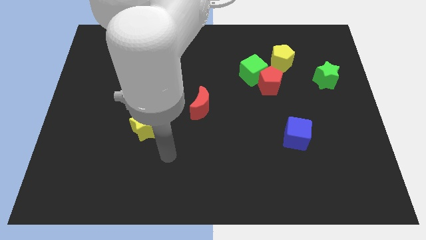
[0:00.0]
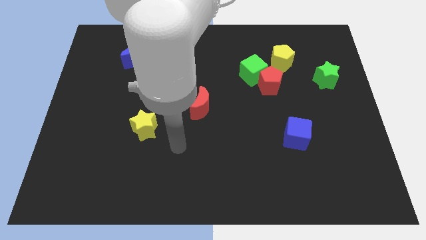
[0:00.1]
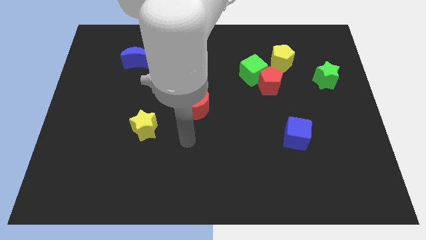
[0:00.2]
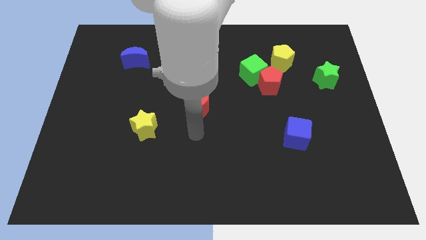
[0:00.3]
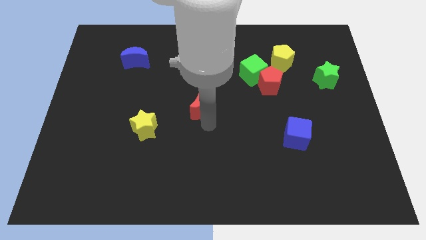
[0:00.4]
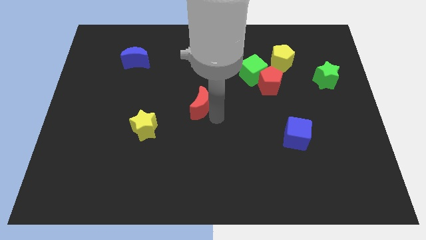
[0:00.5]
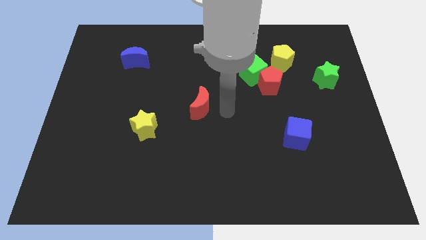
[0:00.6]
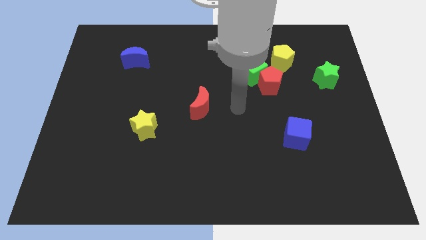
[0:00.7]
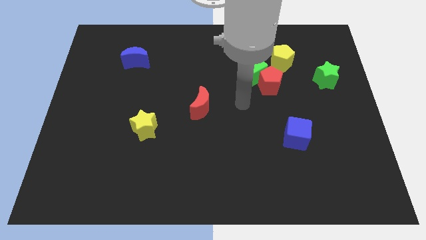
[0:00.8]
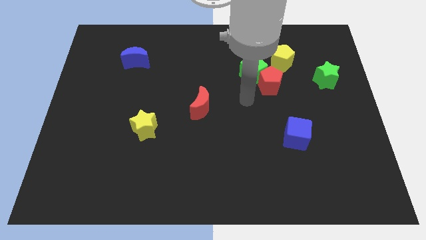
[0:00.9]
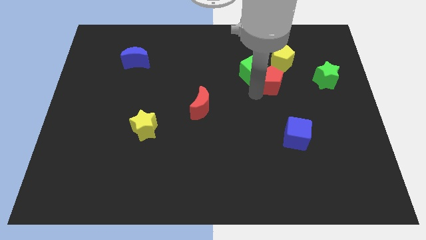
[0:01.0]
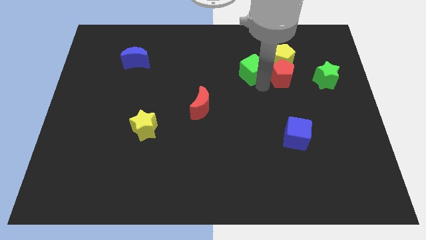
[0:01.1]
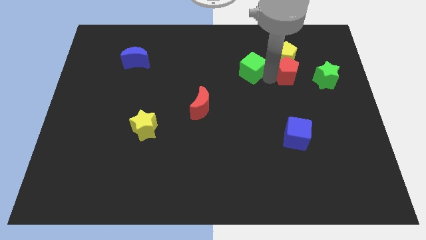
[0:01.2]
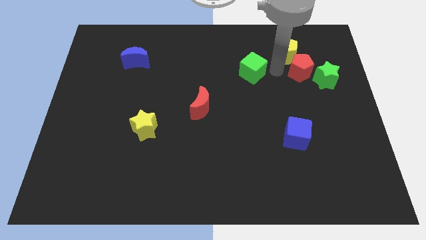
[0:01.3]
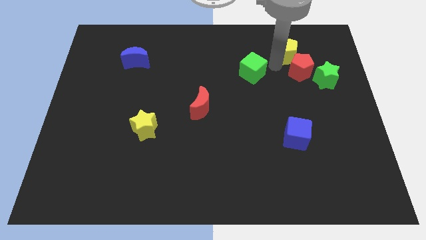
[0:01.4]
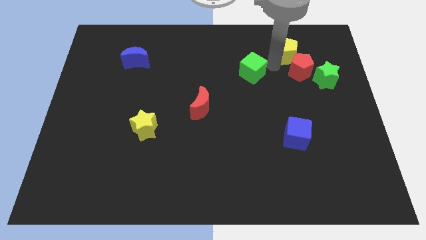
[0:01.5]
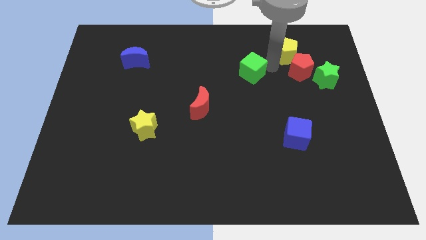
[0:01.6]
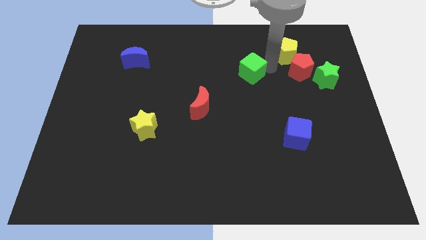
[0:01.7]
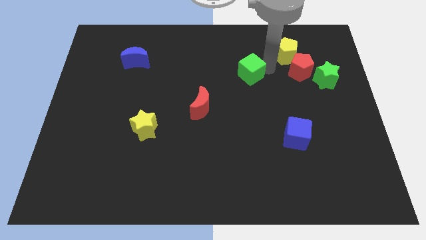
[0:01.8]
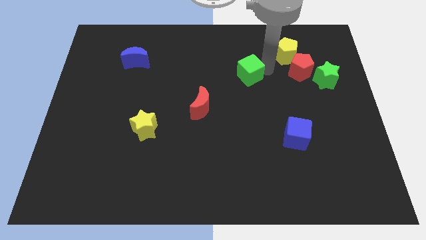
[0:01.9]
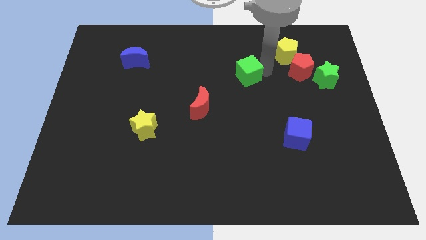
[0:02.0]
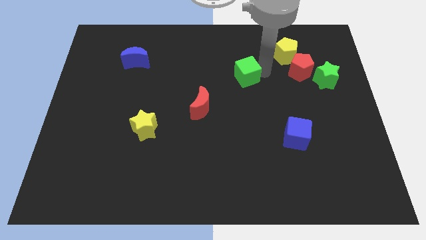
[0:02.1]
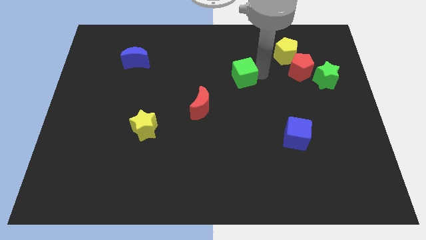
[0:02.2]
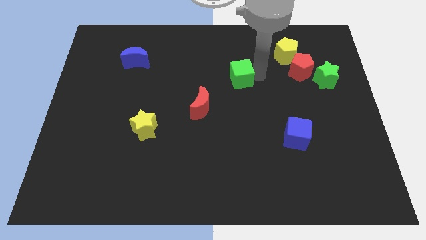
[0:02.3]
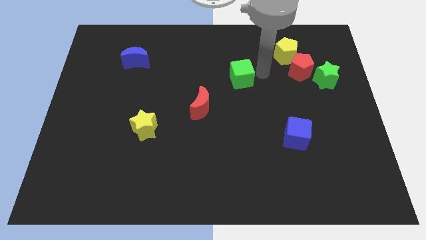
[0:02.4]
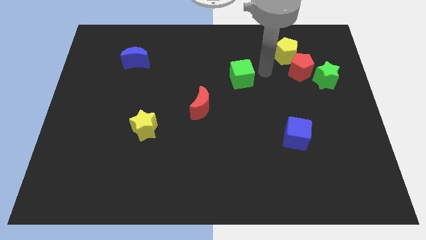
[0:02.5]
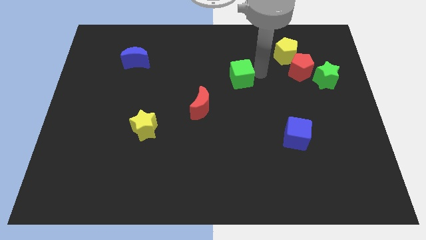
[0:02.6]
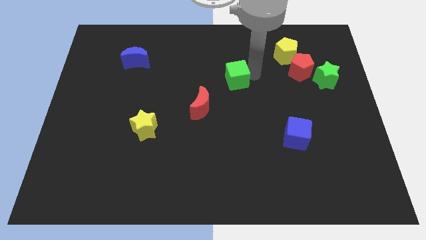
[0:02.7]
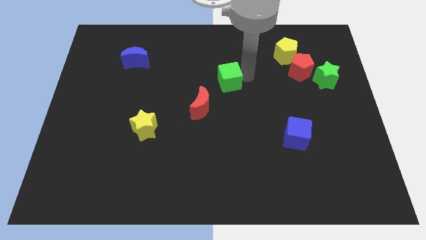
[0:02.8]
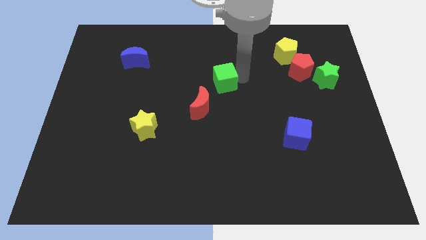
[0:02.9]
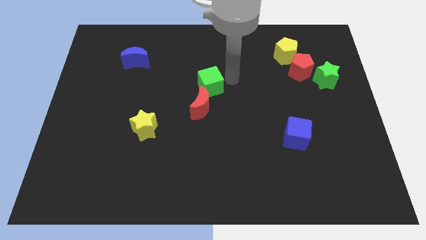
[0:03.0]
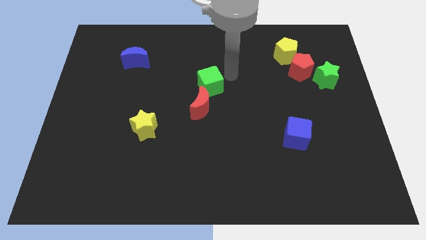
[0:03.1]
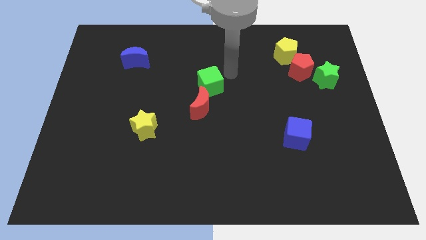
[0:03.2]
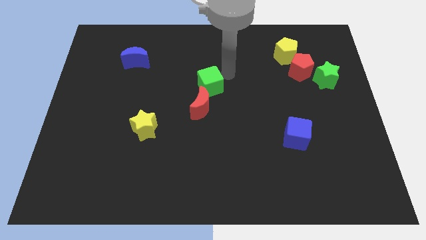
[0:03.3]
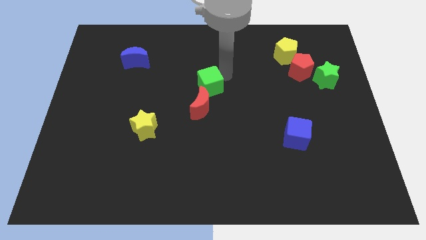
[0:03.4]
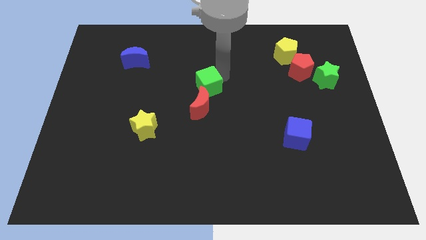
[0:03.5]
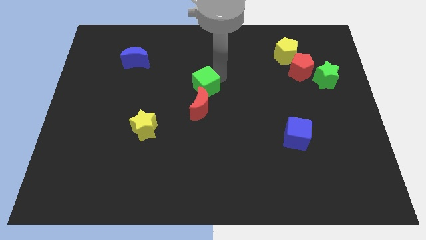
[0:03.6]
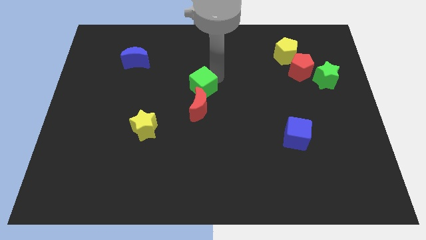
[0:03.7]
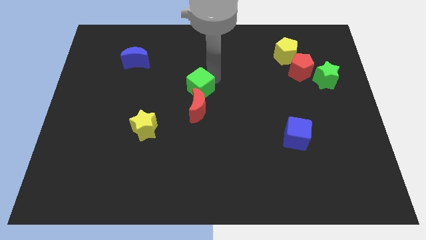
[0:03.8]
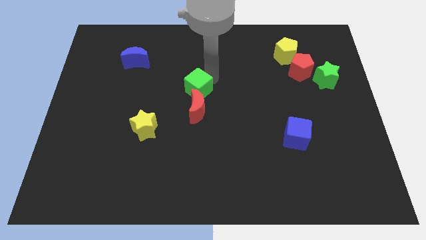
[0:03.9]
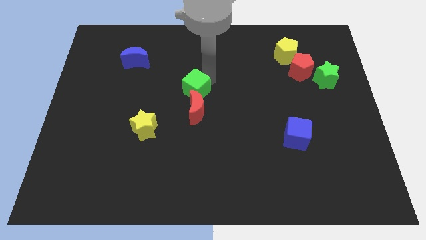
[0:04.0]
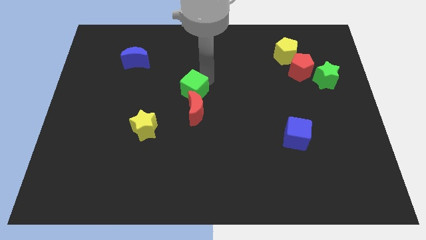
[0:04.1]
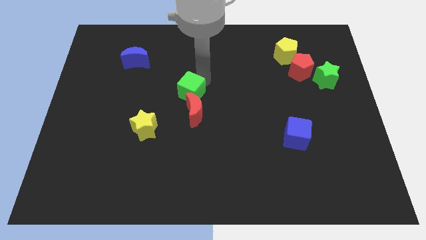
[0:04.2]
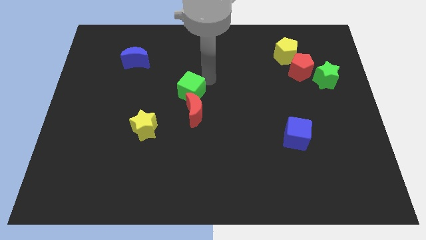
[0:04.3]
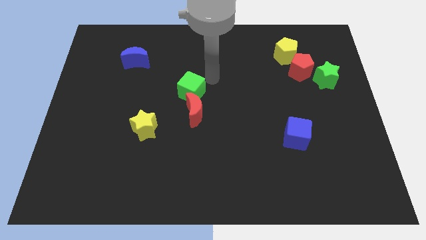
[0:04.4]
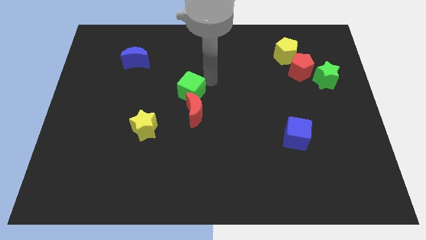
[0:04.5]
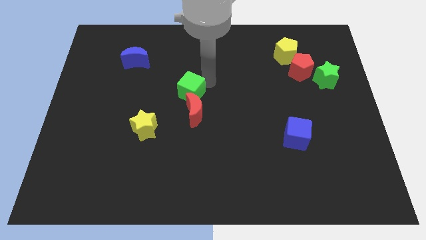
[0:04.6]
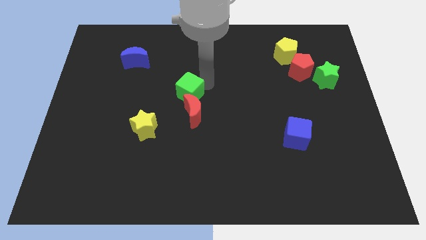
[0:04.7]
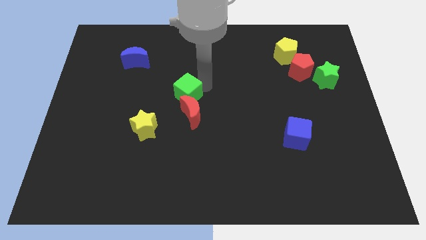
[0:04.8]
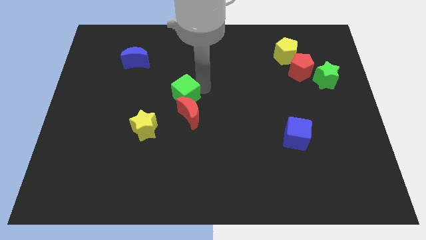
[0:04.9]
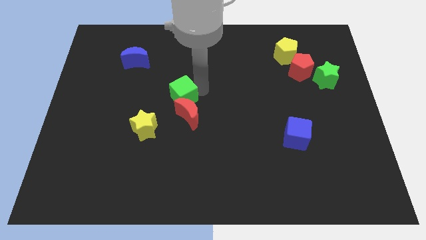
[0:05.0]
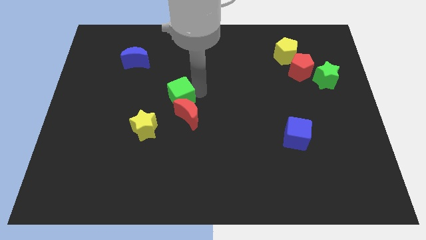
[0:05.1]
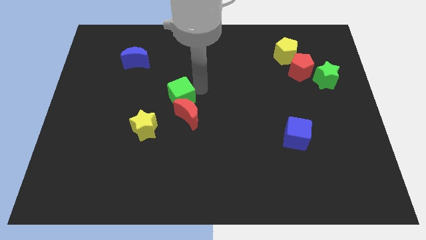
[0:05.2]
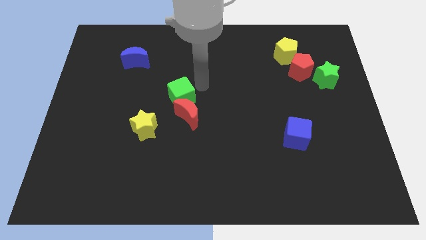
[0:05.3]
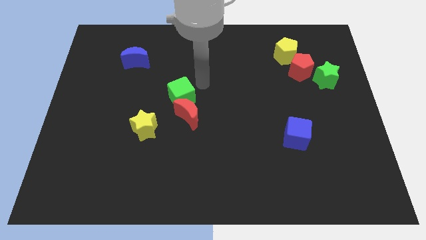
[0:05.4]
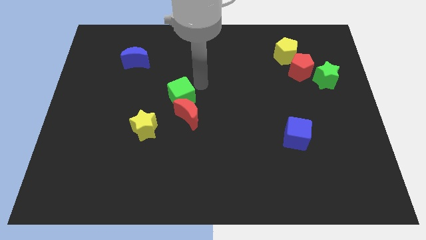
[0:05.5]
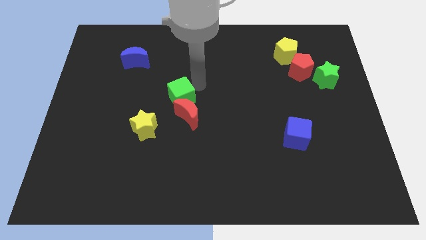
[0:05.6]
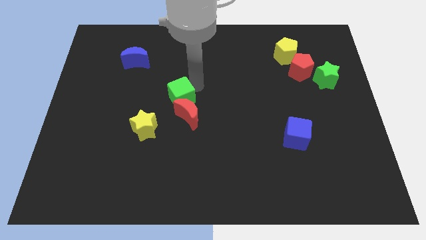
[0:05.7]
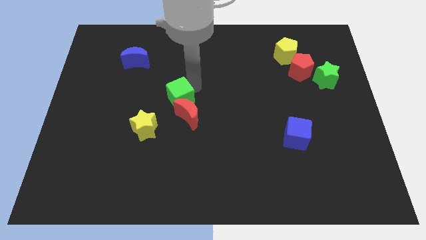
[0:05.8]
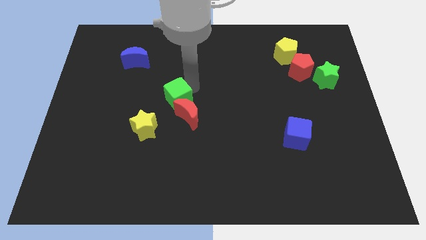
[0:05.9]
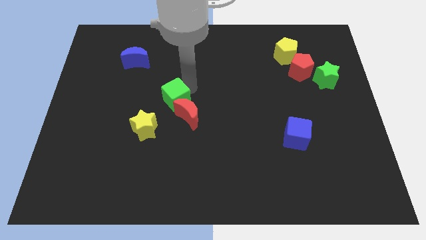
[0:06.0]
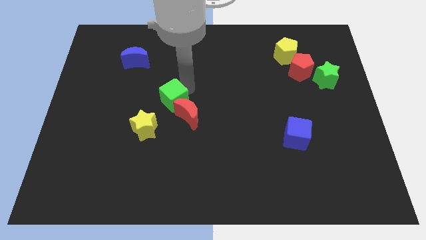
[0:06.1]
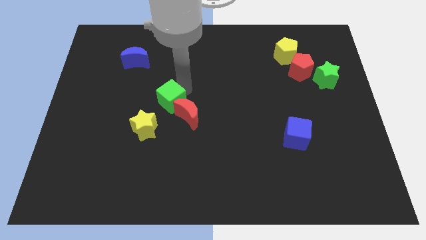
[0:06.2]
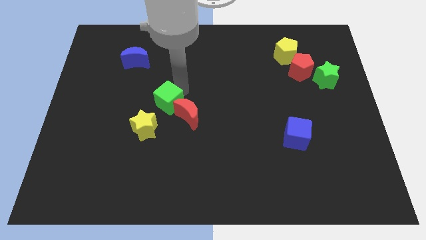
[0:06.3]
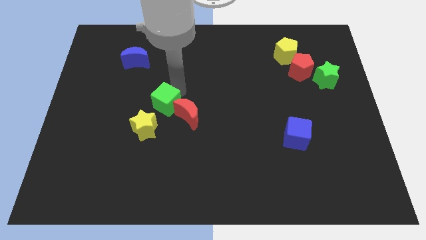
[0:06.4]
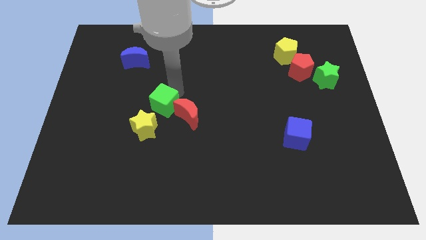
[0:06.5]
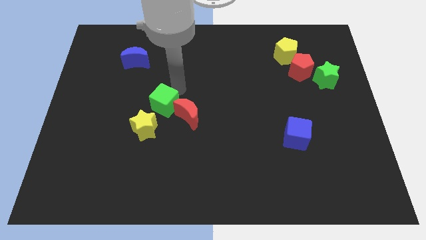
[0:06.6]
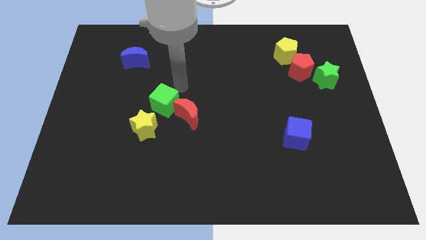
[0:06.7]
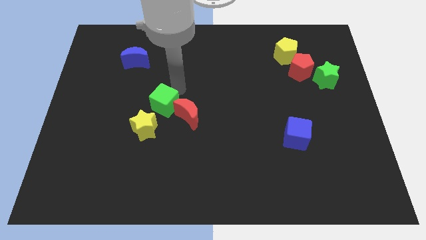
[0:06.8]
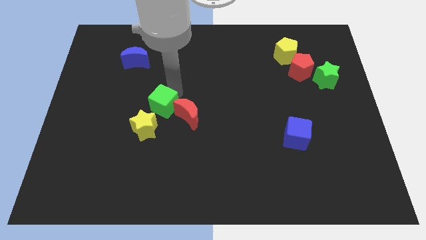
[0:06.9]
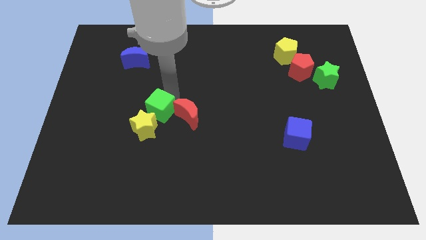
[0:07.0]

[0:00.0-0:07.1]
push the green cube next to the yellow star
